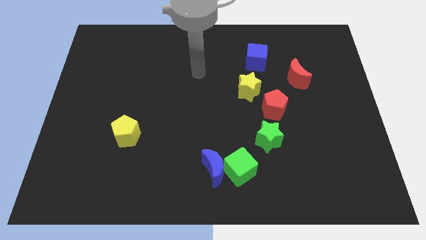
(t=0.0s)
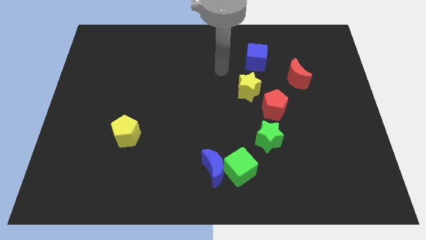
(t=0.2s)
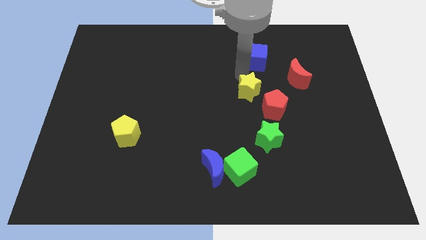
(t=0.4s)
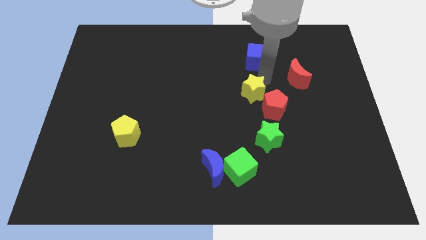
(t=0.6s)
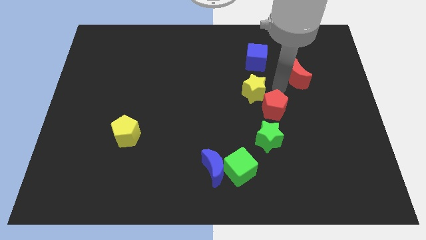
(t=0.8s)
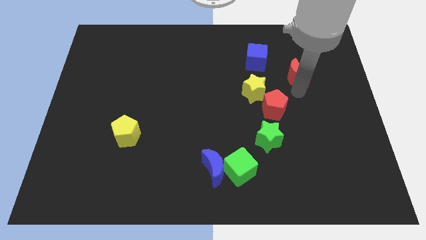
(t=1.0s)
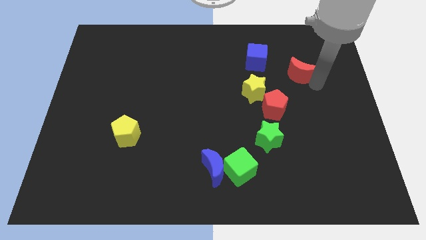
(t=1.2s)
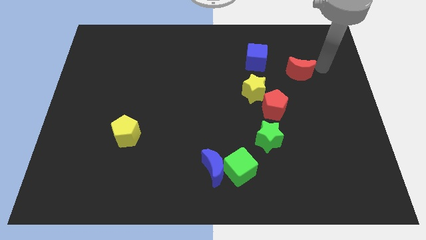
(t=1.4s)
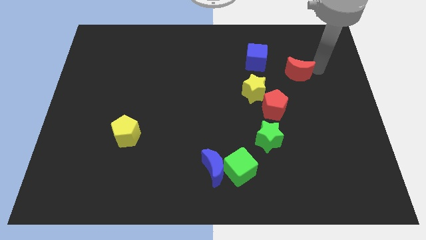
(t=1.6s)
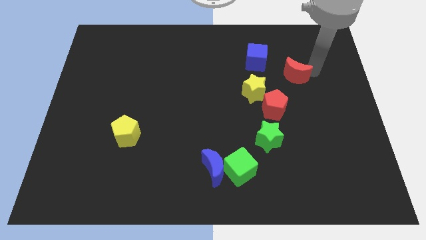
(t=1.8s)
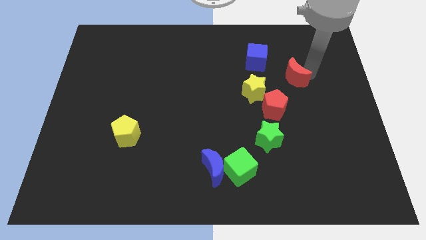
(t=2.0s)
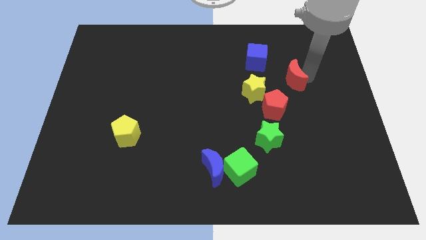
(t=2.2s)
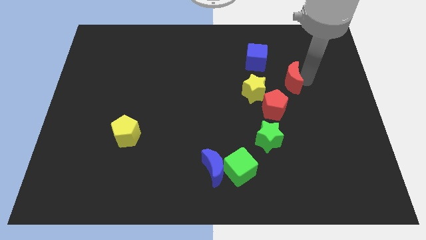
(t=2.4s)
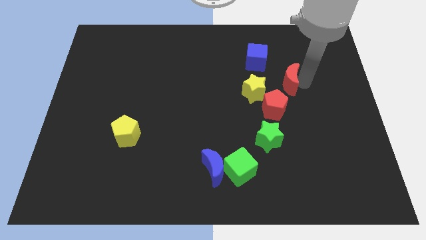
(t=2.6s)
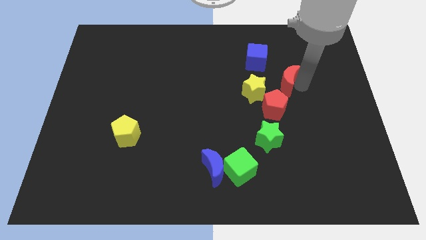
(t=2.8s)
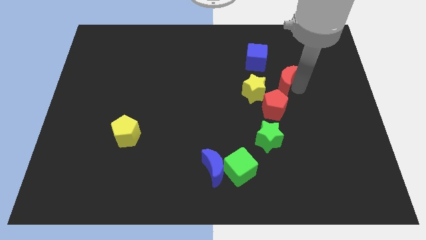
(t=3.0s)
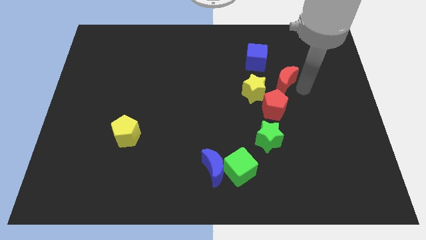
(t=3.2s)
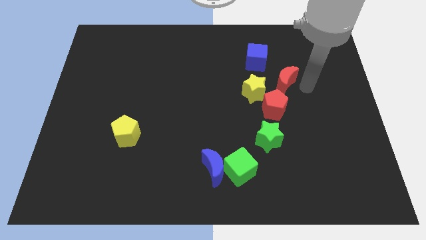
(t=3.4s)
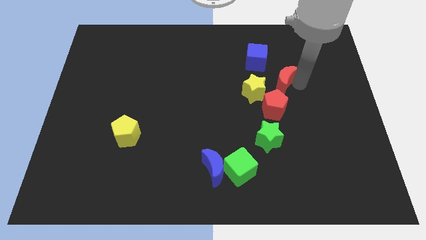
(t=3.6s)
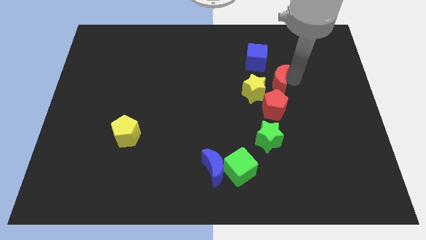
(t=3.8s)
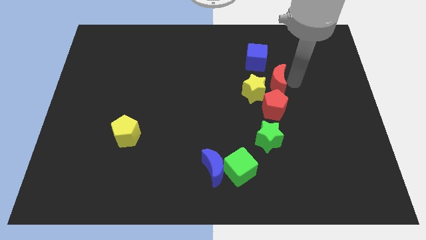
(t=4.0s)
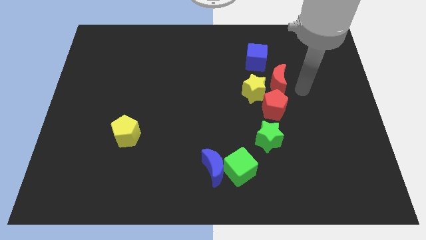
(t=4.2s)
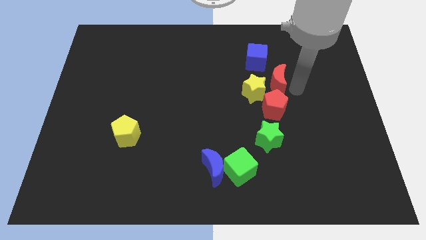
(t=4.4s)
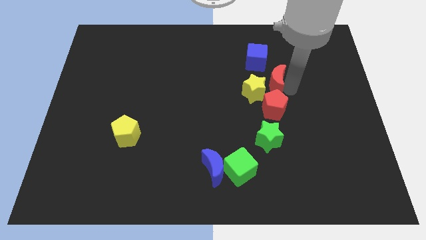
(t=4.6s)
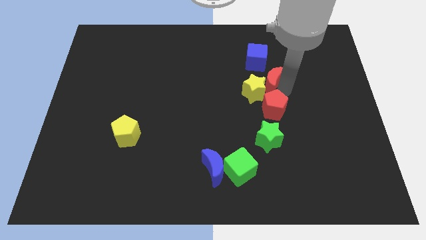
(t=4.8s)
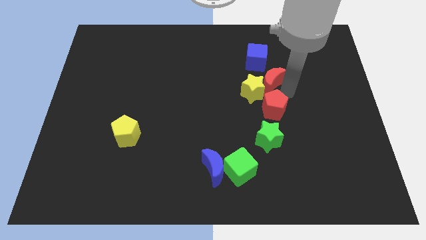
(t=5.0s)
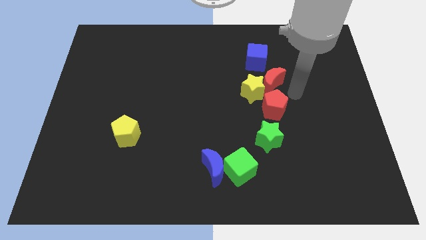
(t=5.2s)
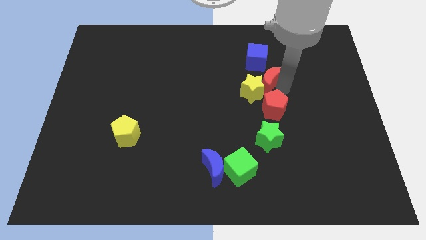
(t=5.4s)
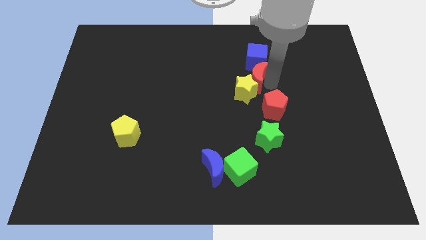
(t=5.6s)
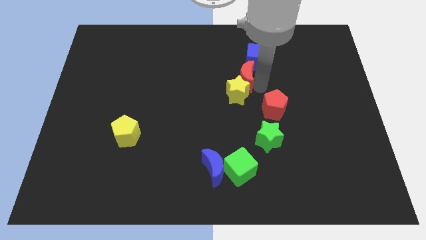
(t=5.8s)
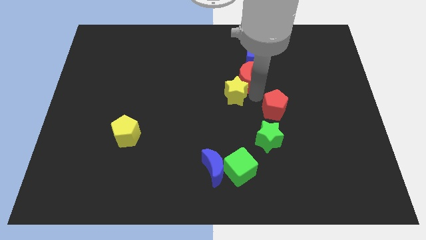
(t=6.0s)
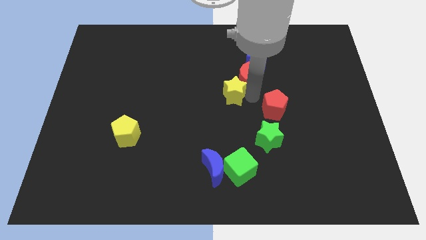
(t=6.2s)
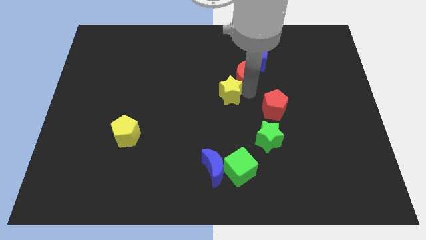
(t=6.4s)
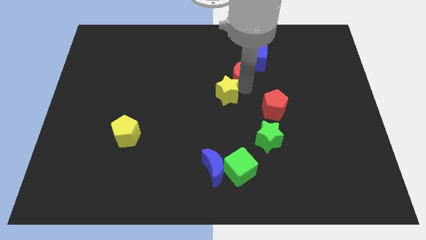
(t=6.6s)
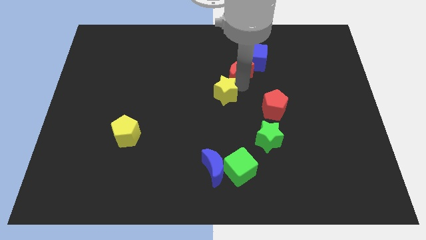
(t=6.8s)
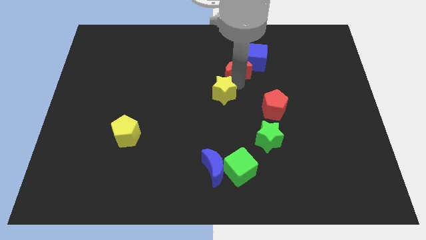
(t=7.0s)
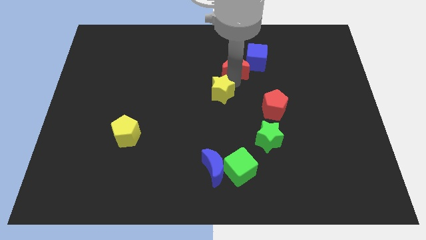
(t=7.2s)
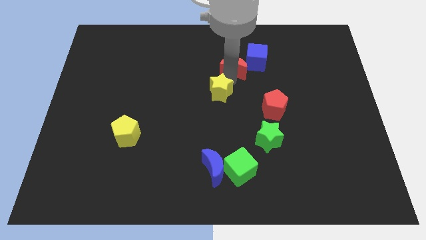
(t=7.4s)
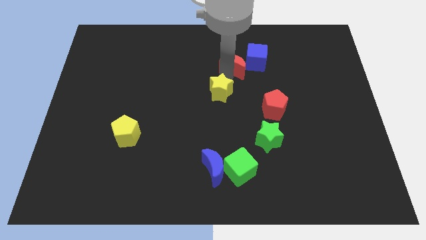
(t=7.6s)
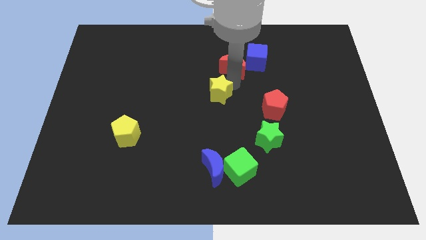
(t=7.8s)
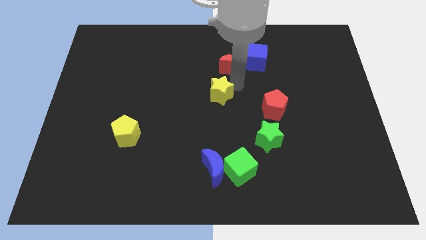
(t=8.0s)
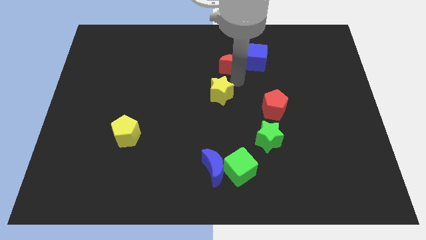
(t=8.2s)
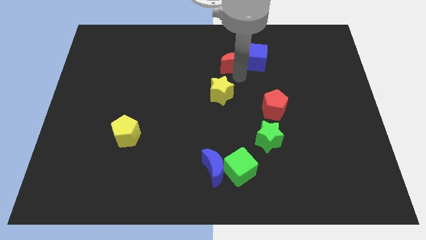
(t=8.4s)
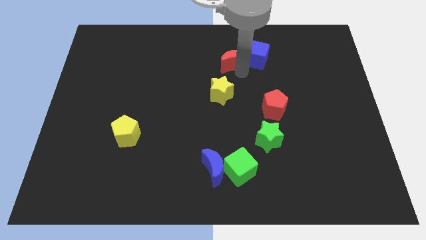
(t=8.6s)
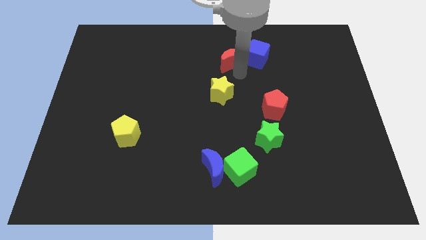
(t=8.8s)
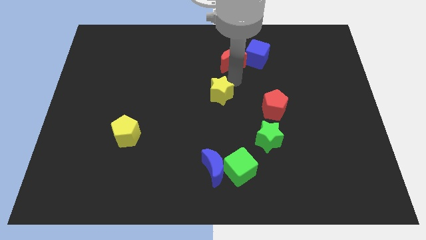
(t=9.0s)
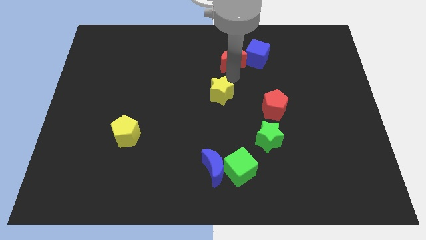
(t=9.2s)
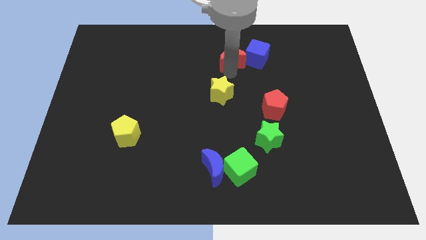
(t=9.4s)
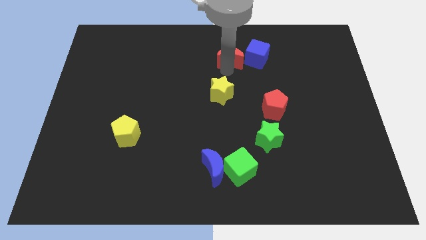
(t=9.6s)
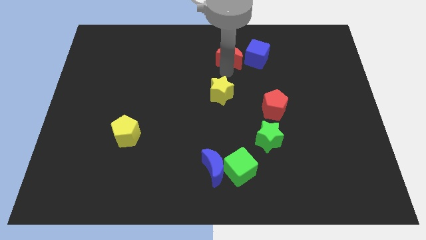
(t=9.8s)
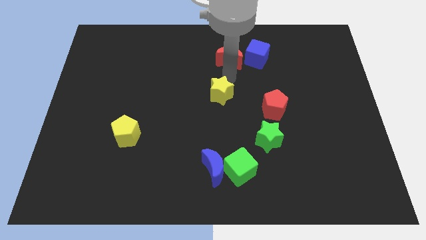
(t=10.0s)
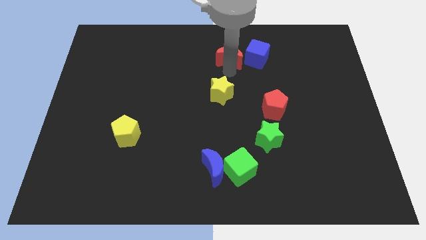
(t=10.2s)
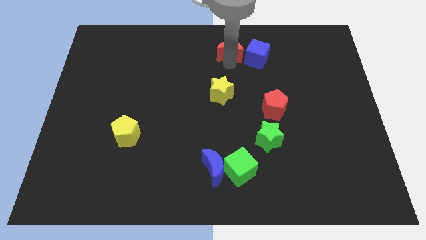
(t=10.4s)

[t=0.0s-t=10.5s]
move the red moon to the top

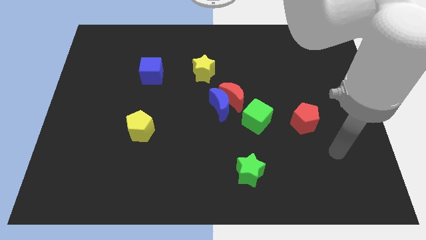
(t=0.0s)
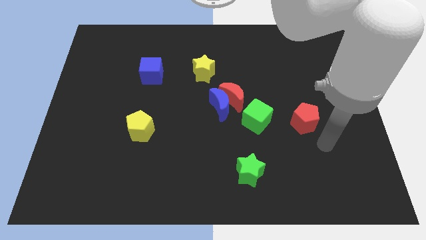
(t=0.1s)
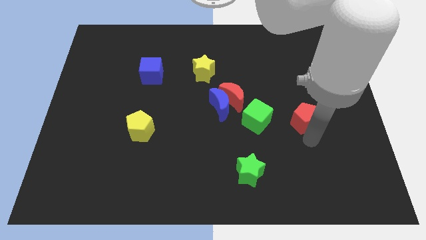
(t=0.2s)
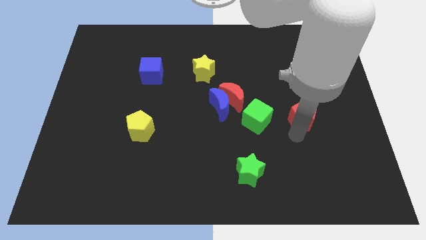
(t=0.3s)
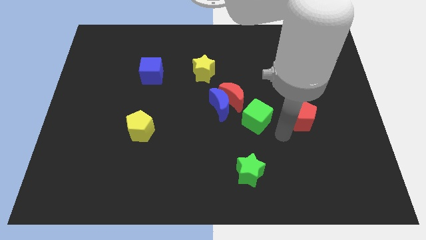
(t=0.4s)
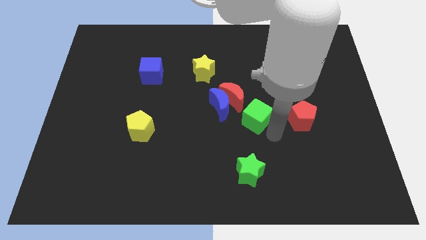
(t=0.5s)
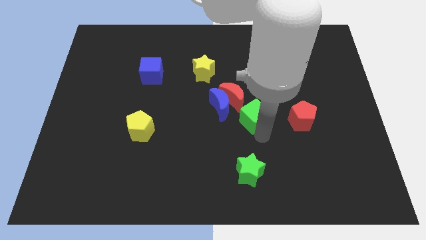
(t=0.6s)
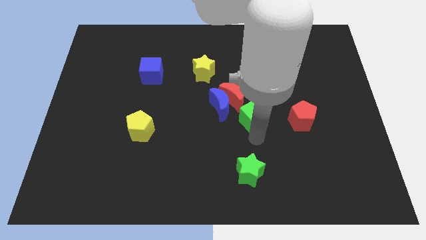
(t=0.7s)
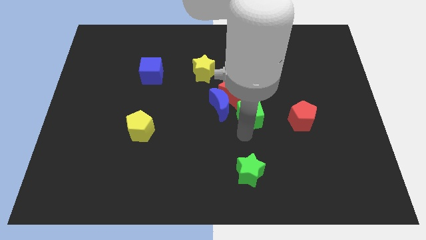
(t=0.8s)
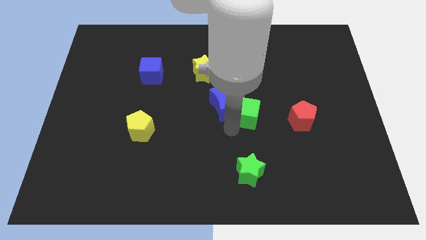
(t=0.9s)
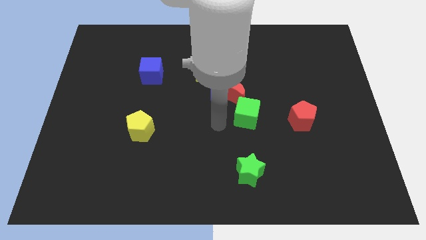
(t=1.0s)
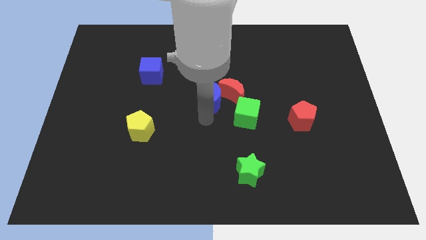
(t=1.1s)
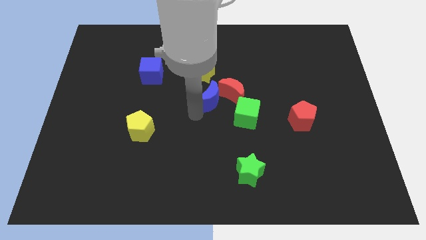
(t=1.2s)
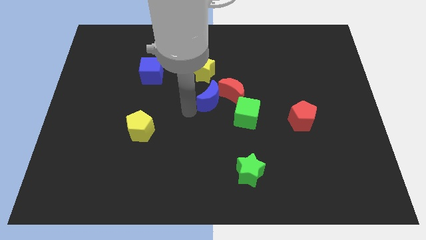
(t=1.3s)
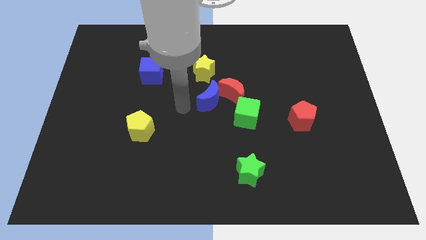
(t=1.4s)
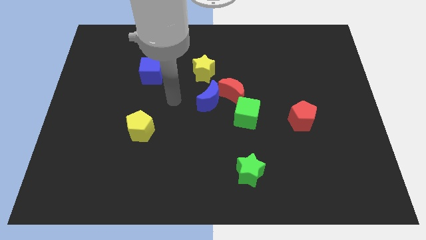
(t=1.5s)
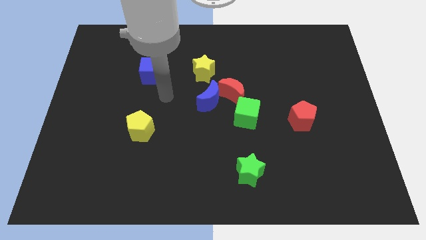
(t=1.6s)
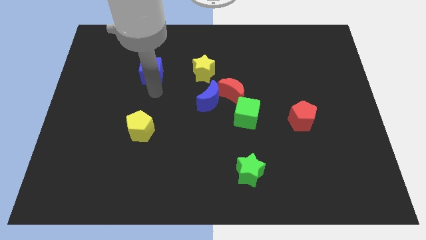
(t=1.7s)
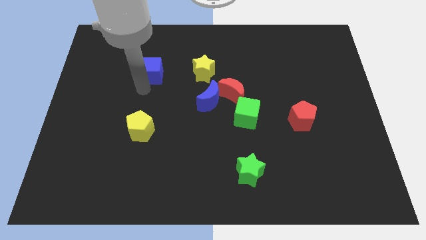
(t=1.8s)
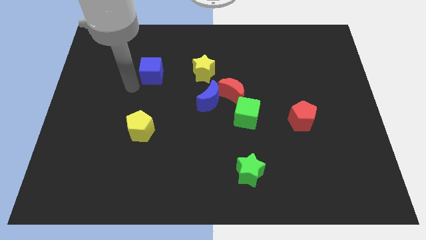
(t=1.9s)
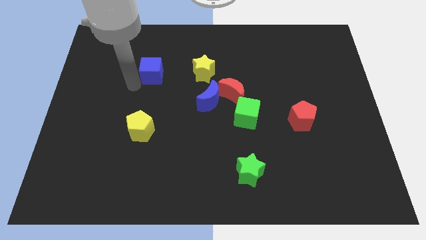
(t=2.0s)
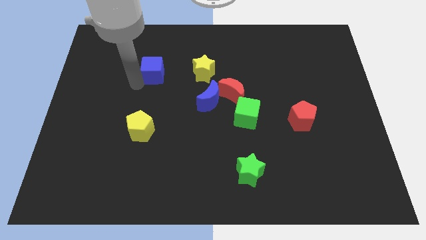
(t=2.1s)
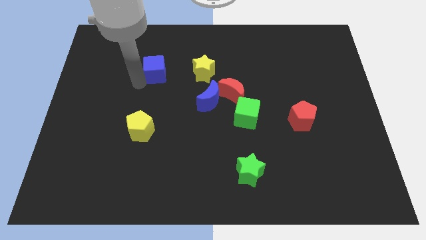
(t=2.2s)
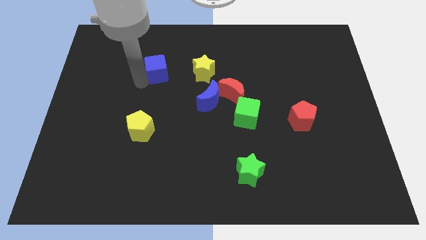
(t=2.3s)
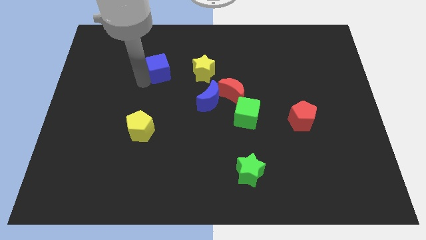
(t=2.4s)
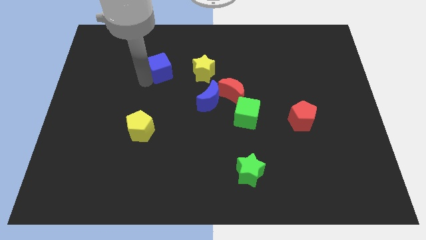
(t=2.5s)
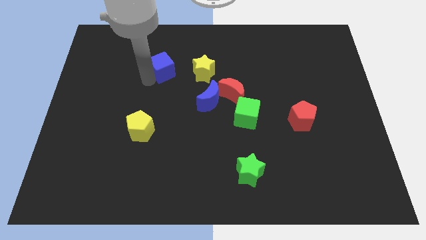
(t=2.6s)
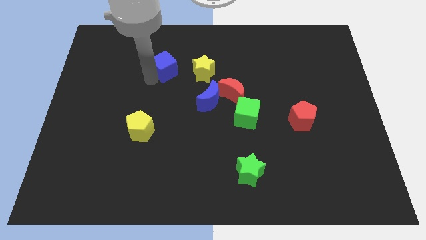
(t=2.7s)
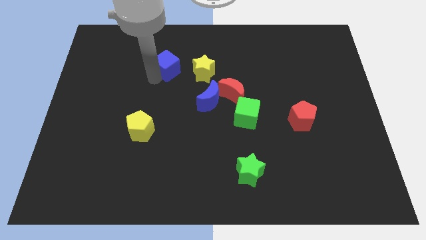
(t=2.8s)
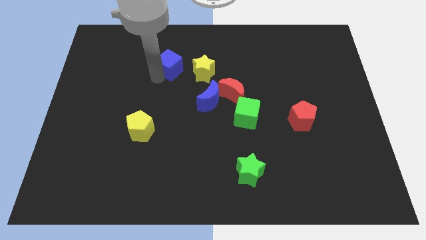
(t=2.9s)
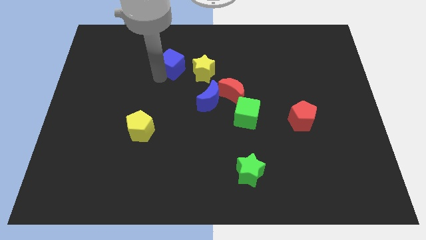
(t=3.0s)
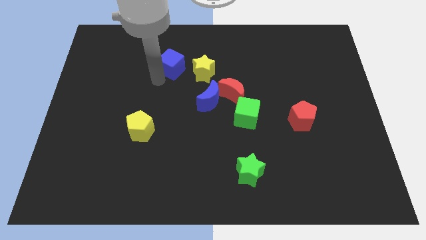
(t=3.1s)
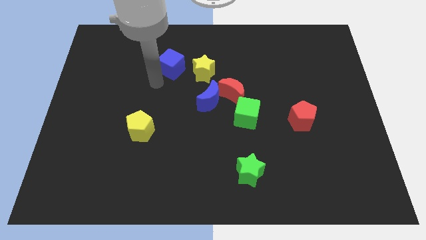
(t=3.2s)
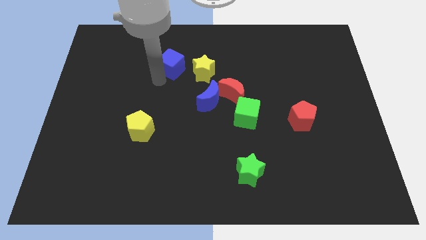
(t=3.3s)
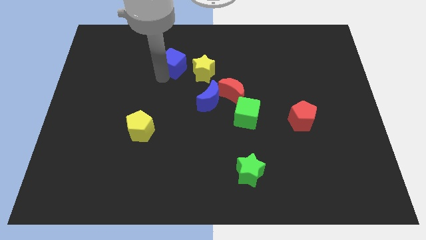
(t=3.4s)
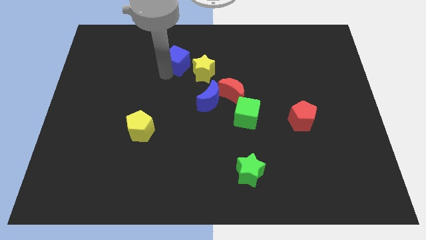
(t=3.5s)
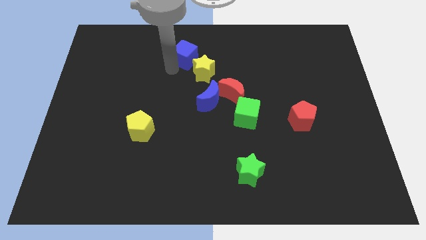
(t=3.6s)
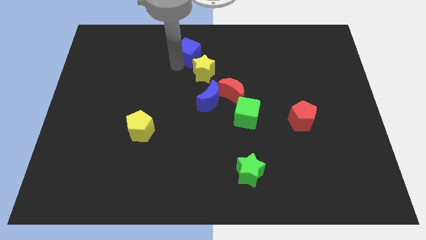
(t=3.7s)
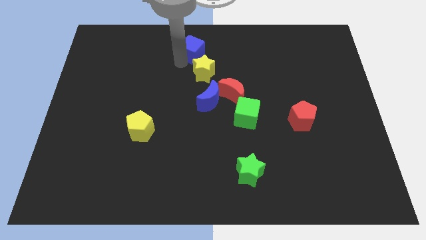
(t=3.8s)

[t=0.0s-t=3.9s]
move the blue cube to the top
